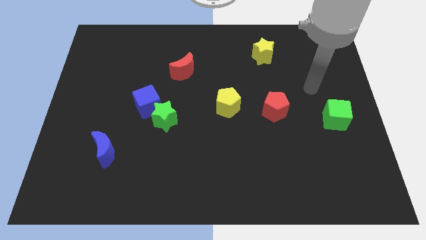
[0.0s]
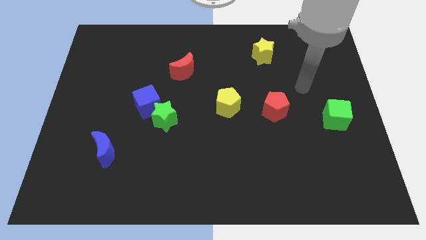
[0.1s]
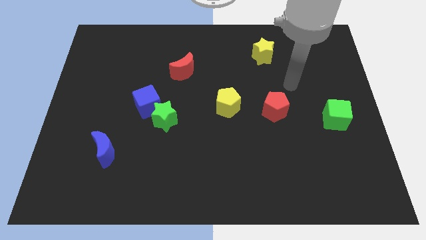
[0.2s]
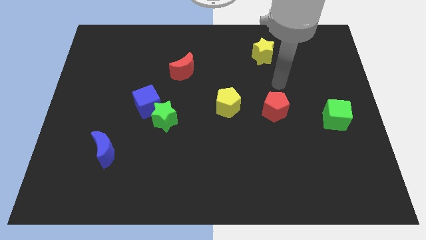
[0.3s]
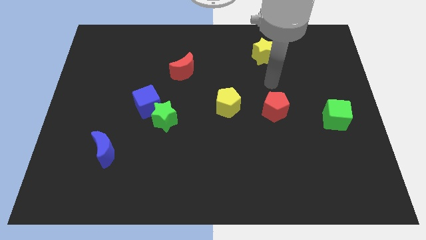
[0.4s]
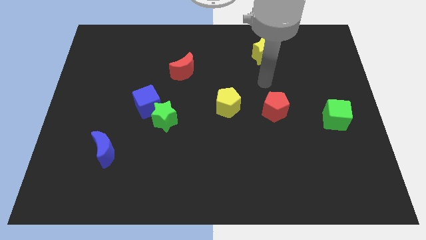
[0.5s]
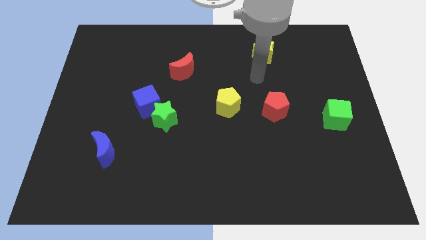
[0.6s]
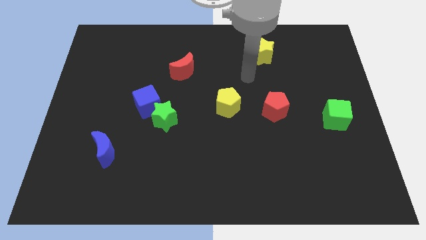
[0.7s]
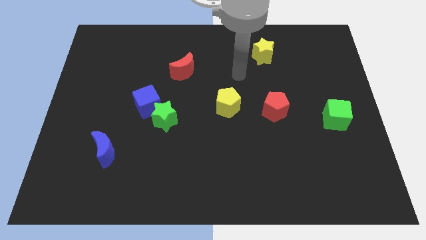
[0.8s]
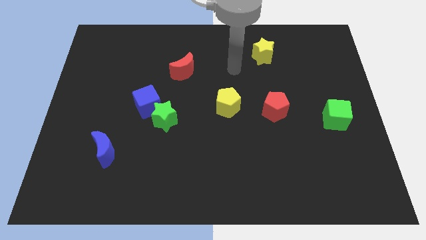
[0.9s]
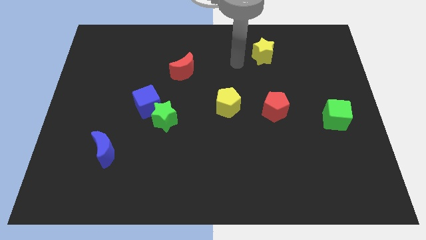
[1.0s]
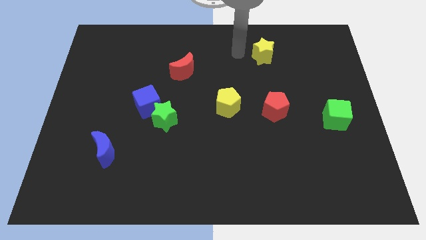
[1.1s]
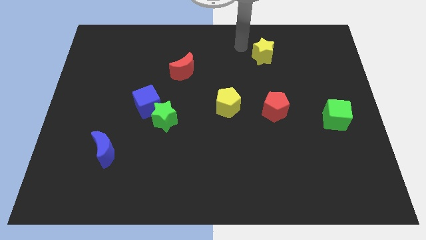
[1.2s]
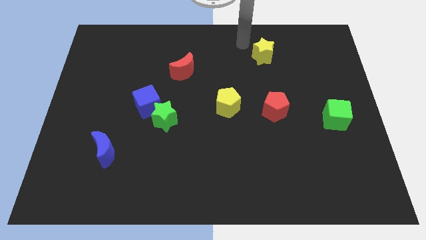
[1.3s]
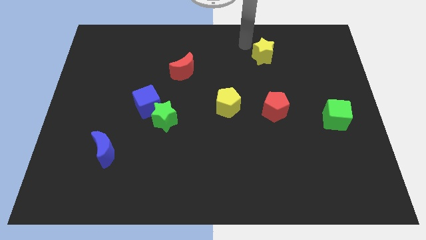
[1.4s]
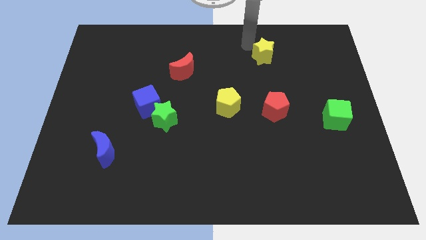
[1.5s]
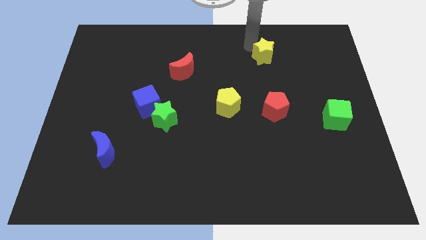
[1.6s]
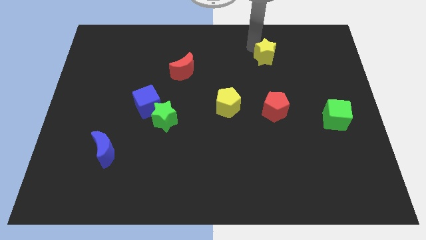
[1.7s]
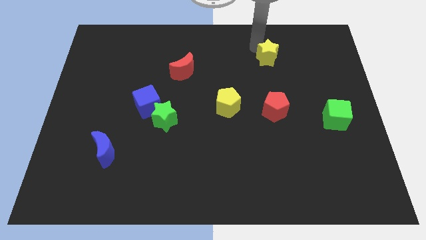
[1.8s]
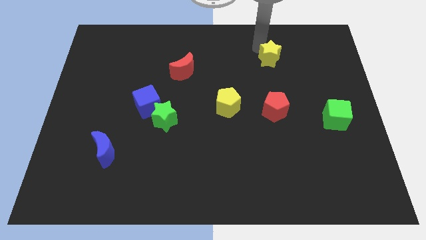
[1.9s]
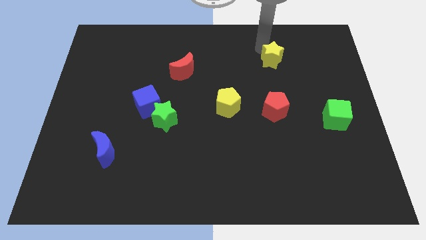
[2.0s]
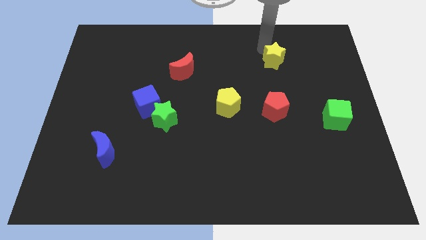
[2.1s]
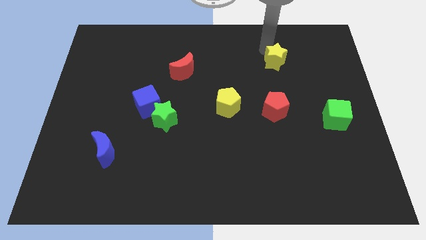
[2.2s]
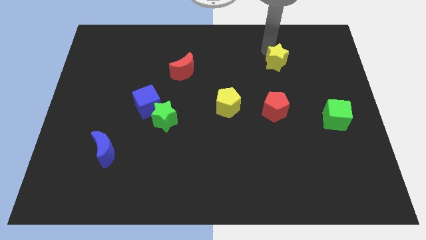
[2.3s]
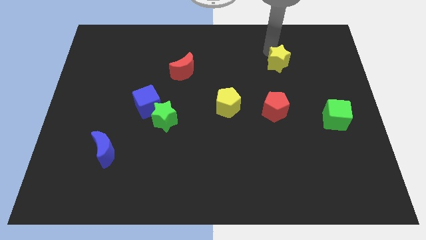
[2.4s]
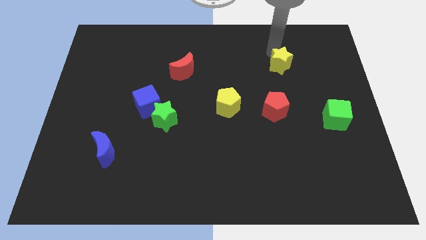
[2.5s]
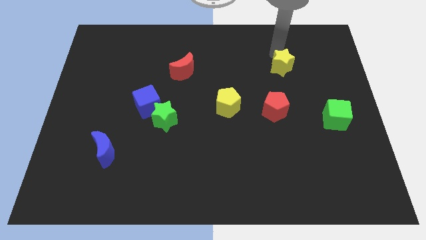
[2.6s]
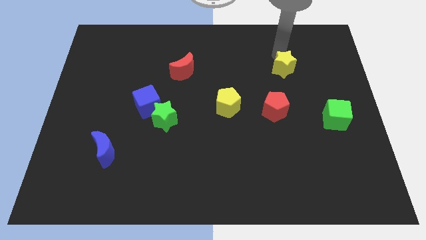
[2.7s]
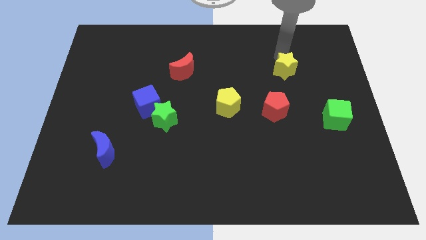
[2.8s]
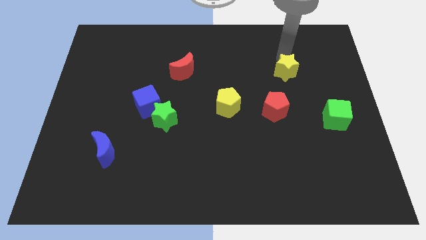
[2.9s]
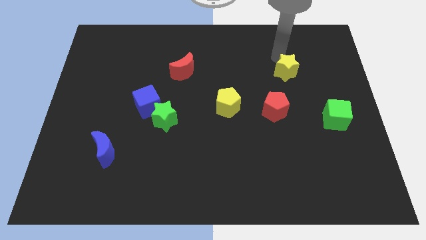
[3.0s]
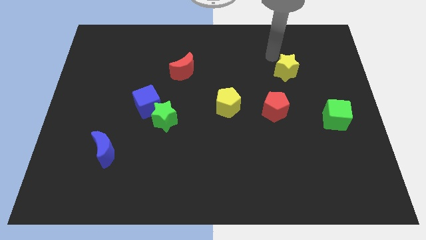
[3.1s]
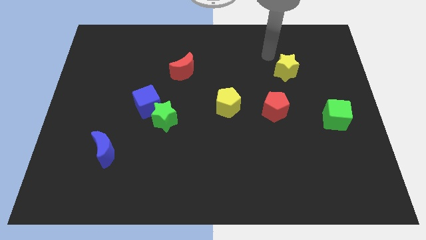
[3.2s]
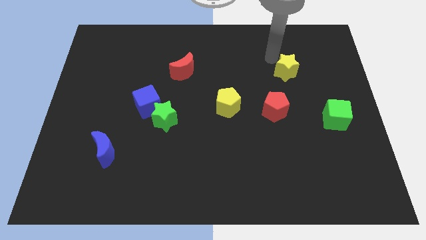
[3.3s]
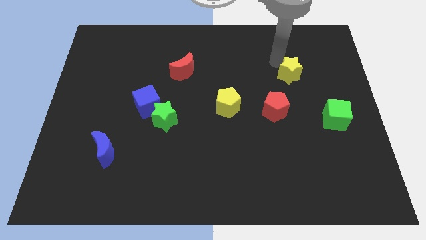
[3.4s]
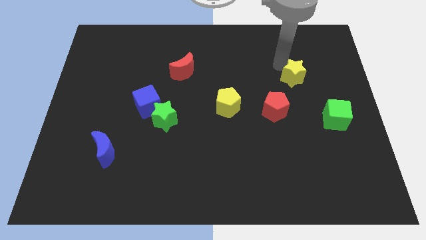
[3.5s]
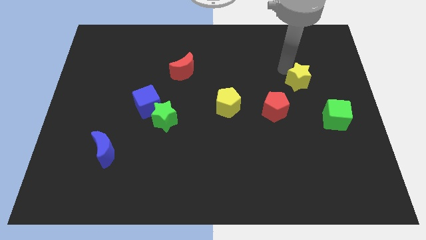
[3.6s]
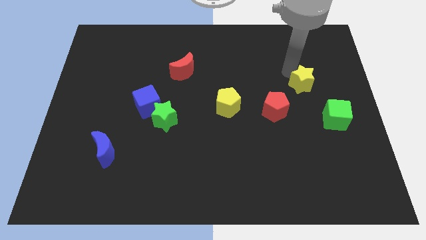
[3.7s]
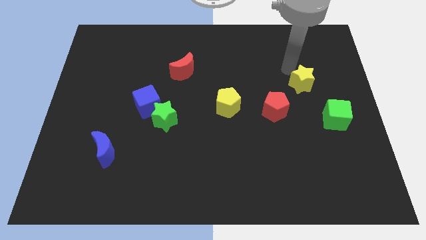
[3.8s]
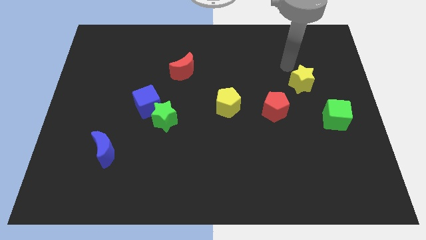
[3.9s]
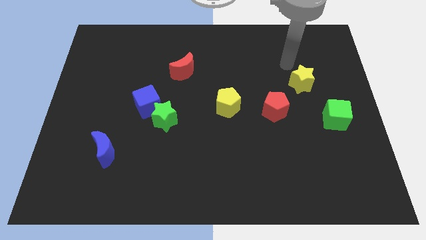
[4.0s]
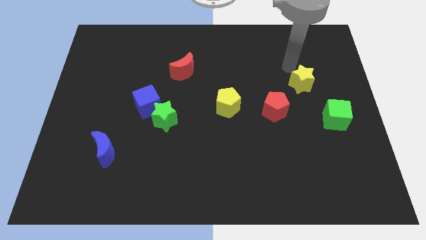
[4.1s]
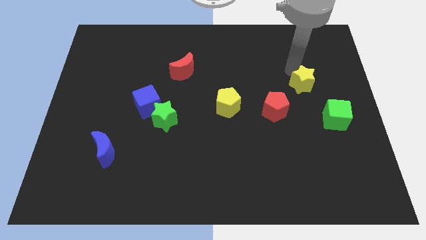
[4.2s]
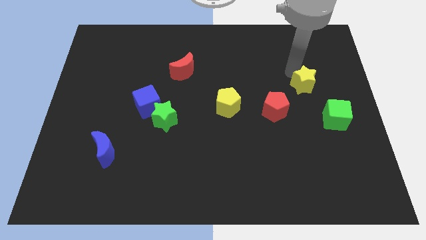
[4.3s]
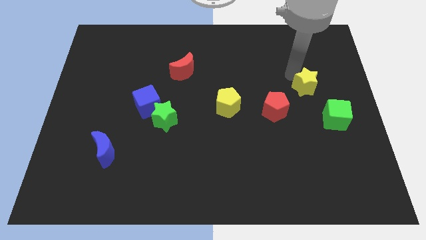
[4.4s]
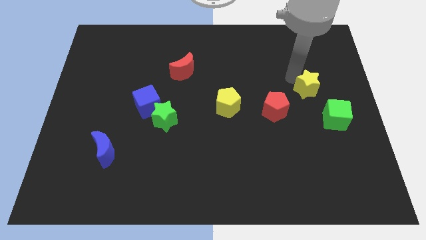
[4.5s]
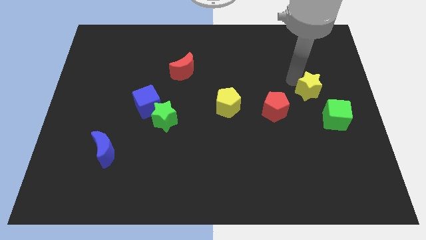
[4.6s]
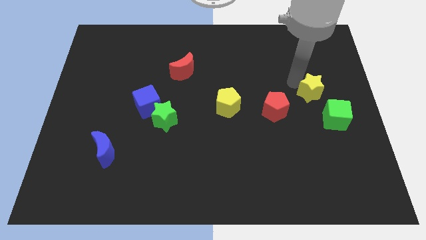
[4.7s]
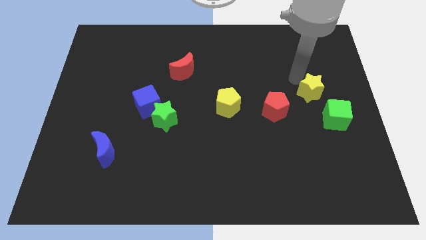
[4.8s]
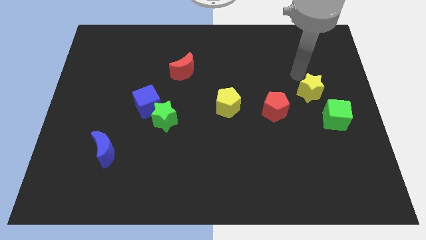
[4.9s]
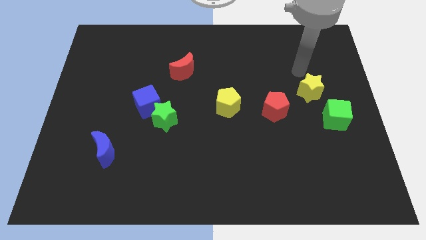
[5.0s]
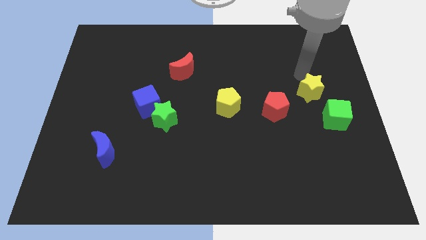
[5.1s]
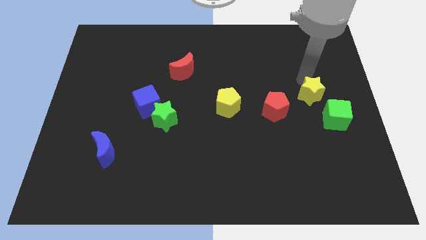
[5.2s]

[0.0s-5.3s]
slide the yellow star just right of the red pentagon

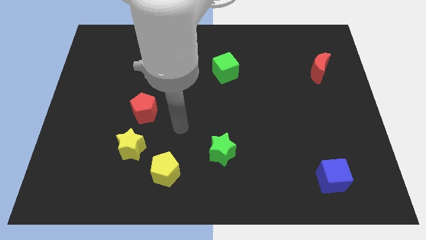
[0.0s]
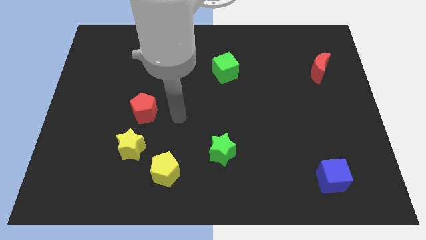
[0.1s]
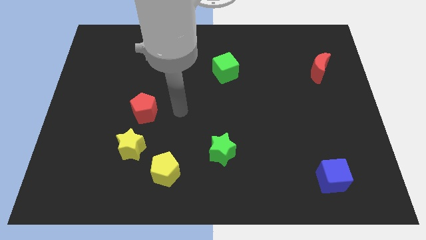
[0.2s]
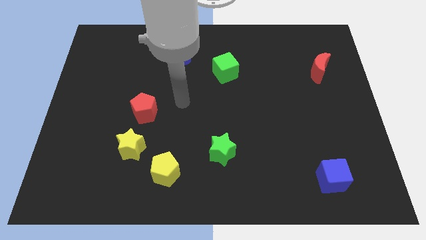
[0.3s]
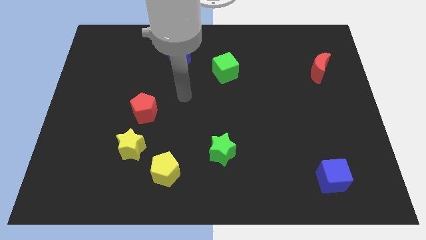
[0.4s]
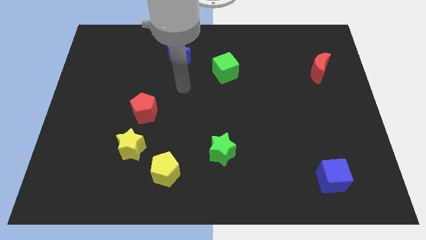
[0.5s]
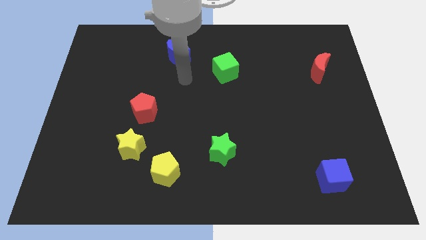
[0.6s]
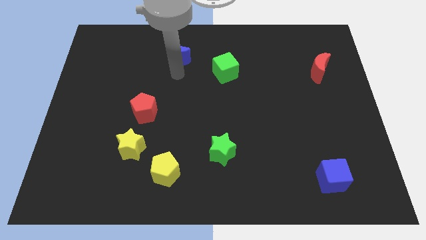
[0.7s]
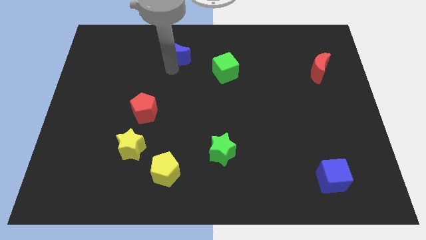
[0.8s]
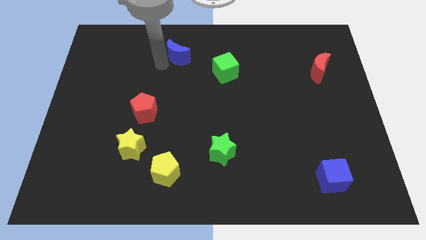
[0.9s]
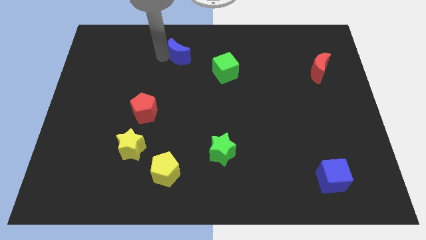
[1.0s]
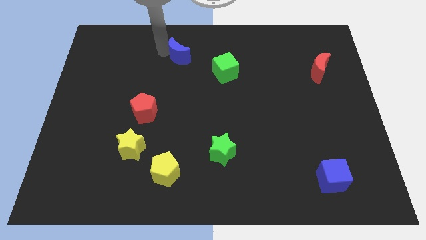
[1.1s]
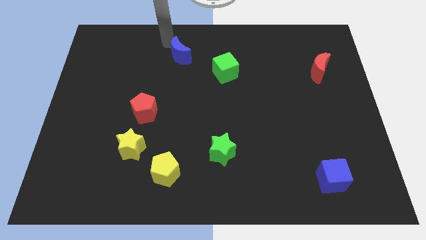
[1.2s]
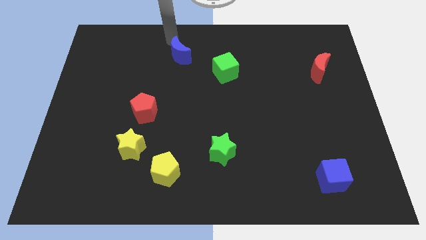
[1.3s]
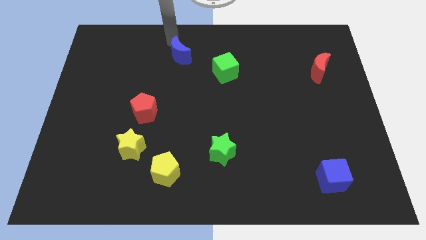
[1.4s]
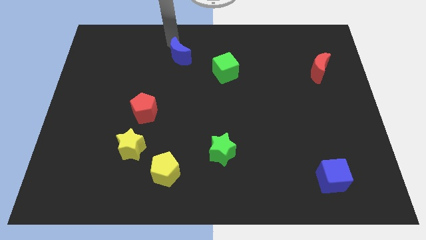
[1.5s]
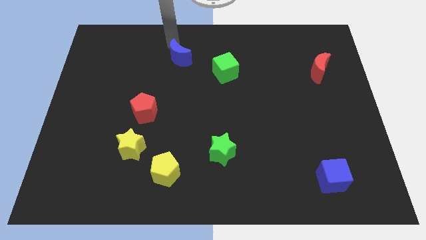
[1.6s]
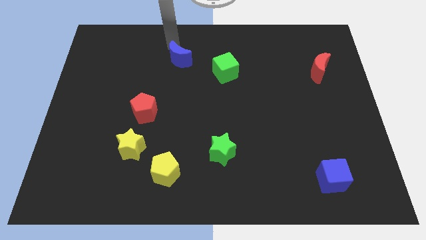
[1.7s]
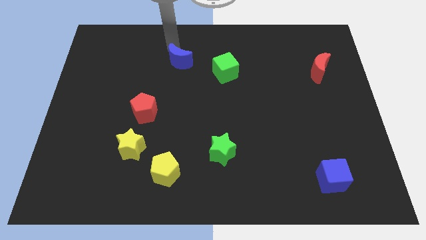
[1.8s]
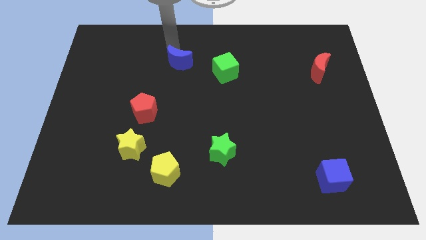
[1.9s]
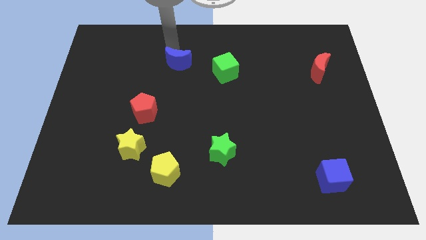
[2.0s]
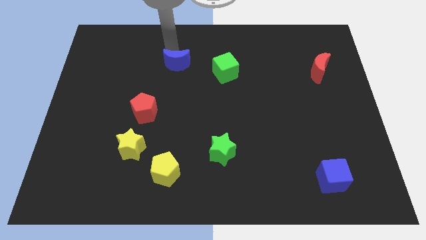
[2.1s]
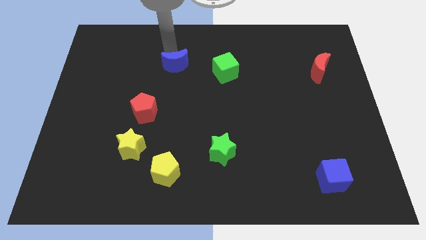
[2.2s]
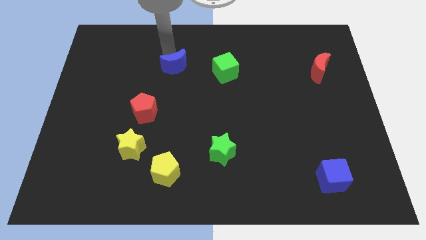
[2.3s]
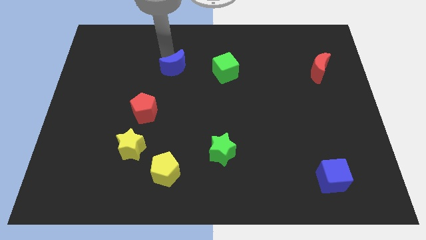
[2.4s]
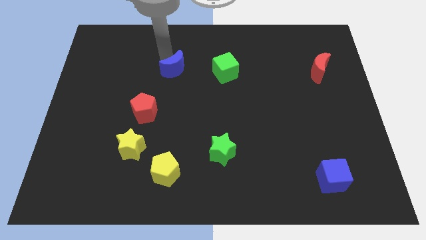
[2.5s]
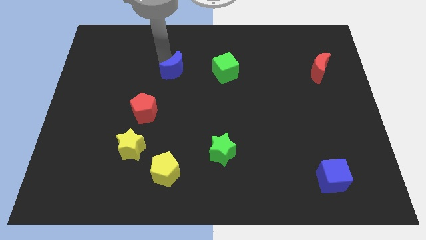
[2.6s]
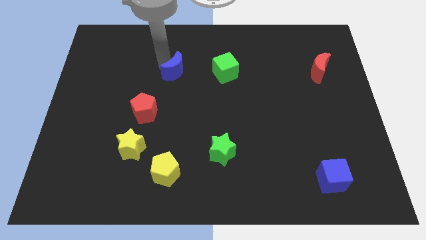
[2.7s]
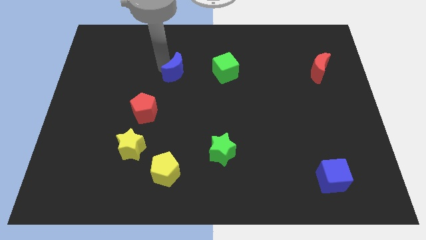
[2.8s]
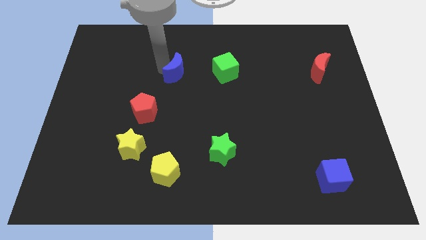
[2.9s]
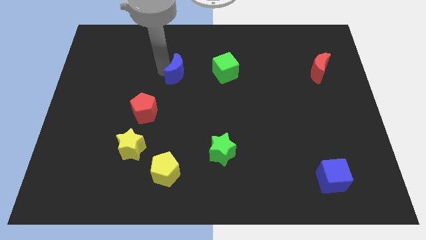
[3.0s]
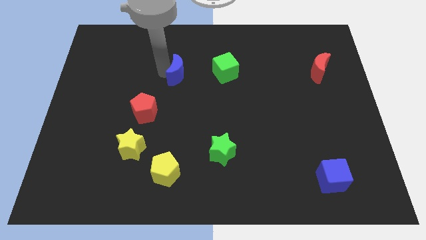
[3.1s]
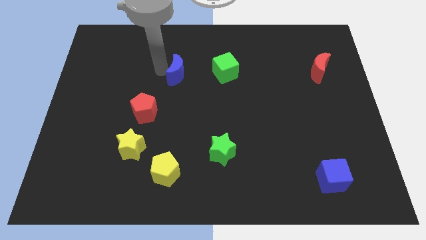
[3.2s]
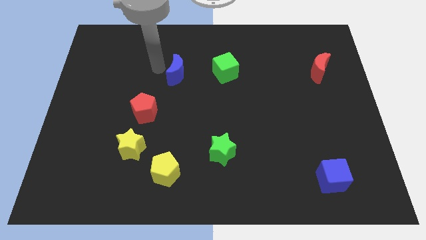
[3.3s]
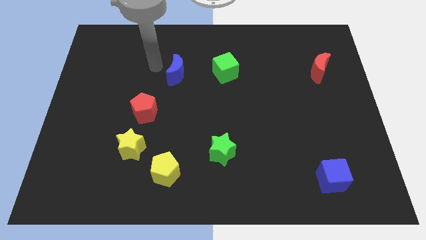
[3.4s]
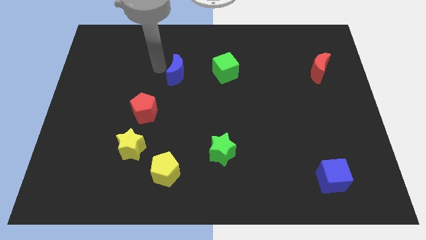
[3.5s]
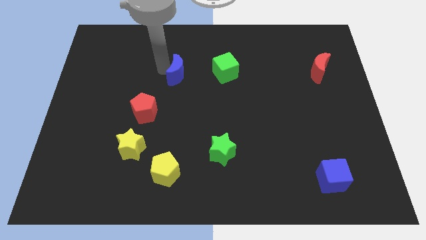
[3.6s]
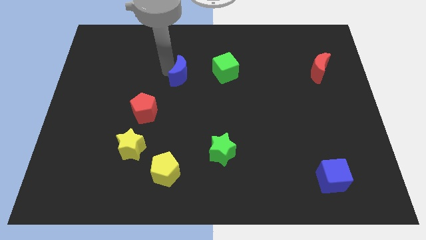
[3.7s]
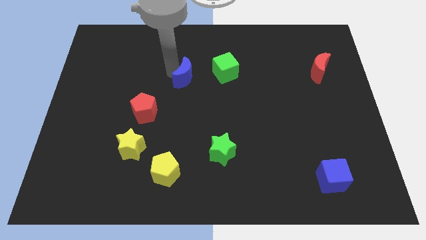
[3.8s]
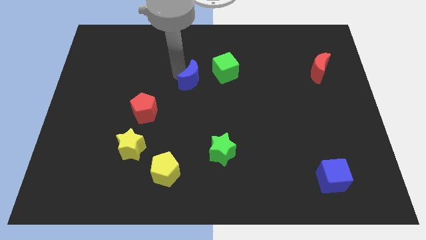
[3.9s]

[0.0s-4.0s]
move the blue moon diagonally down and to the left of the green cube
